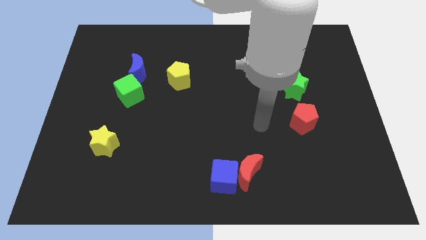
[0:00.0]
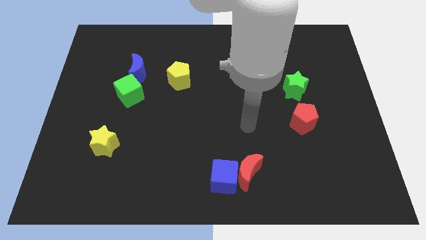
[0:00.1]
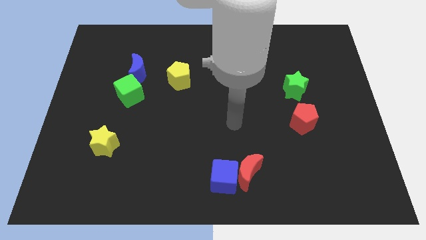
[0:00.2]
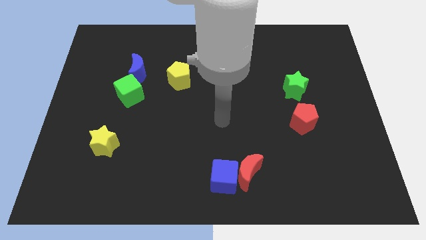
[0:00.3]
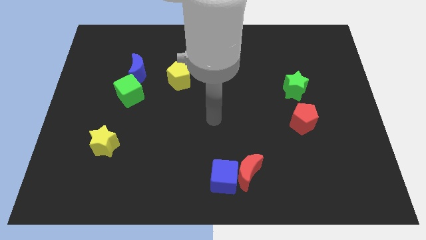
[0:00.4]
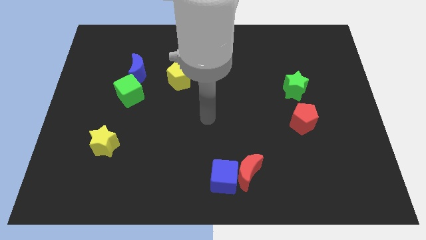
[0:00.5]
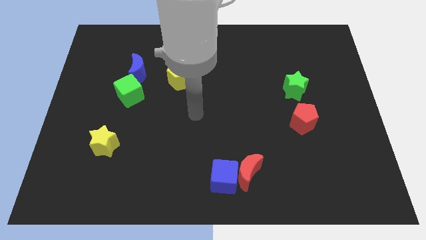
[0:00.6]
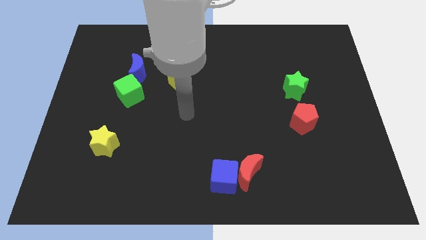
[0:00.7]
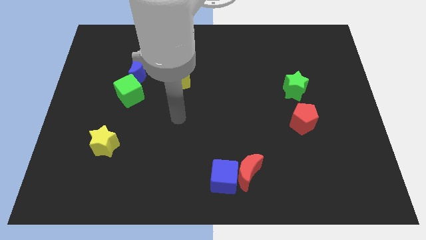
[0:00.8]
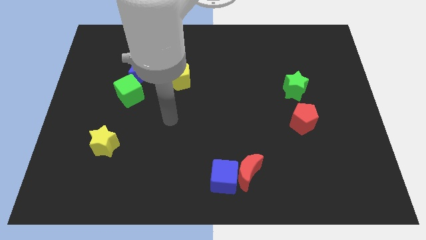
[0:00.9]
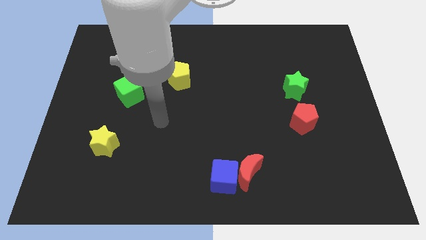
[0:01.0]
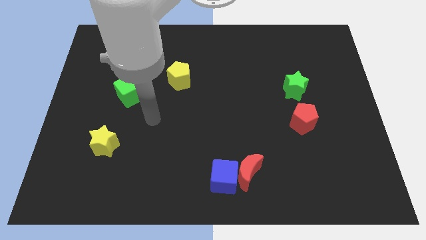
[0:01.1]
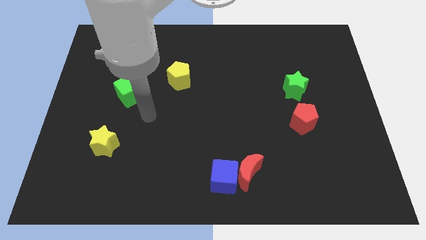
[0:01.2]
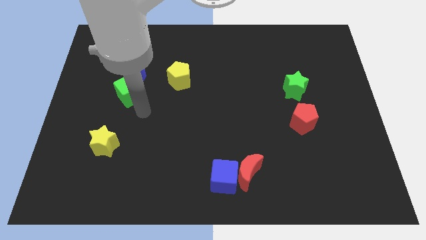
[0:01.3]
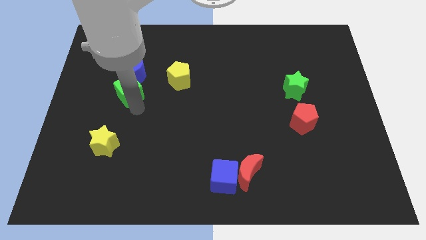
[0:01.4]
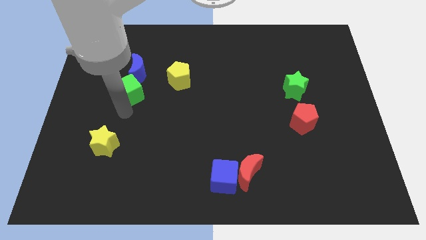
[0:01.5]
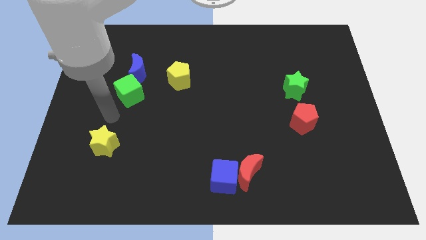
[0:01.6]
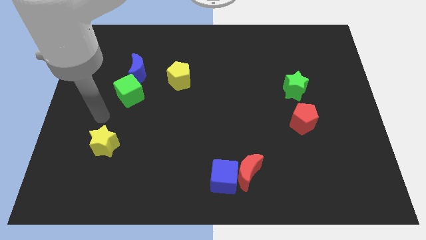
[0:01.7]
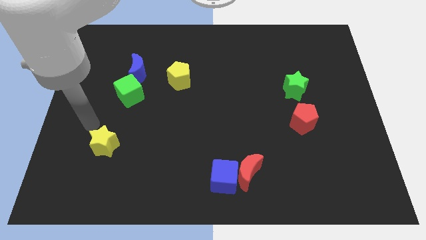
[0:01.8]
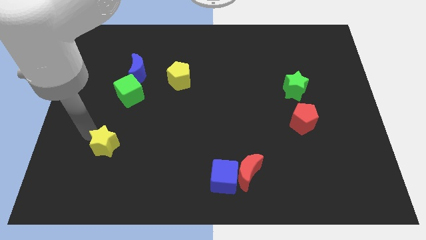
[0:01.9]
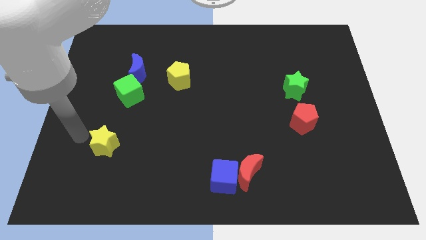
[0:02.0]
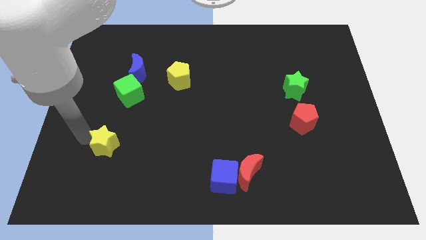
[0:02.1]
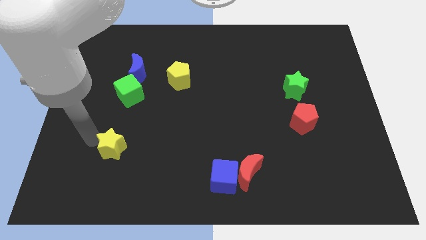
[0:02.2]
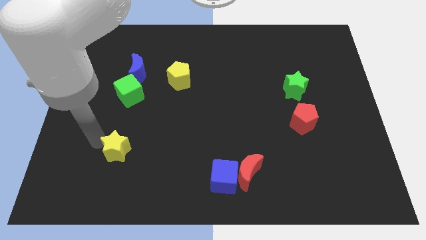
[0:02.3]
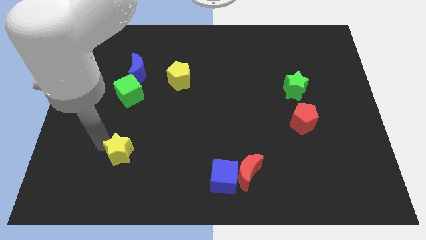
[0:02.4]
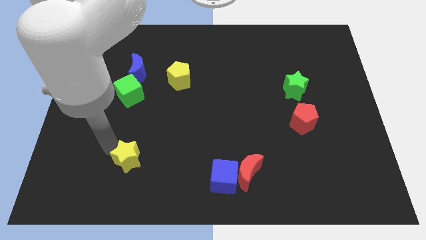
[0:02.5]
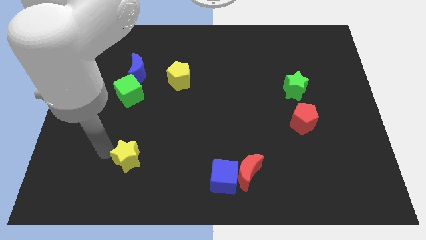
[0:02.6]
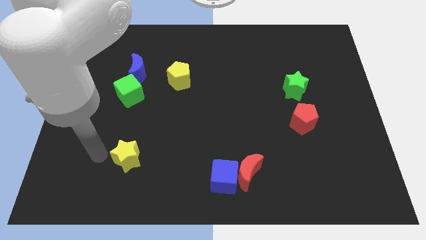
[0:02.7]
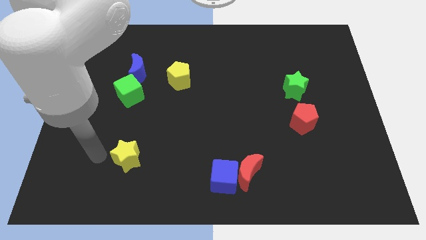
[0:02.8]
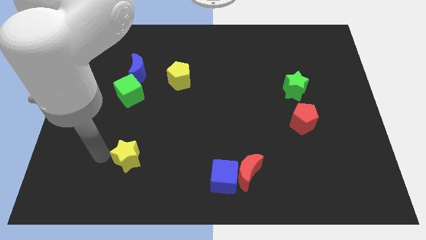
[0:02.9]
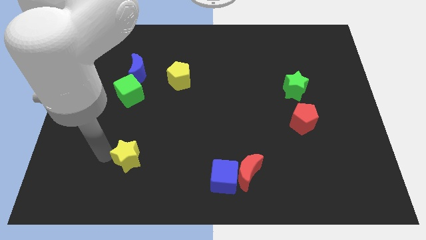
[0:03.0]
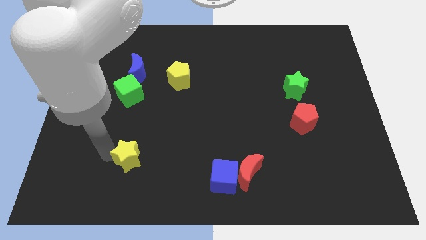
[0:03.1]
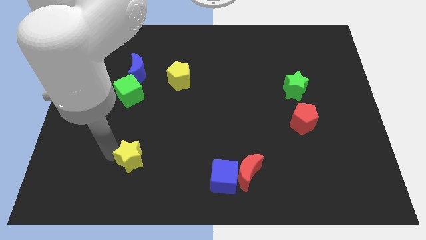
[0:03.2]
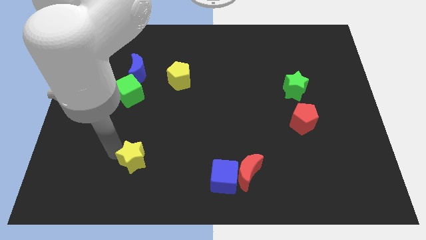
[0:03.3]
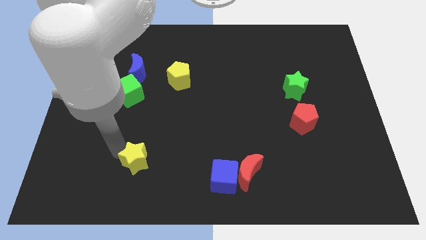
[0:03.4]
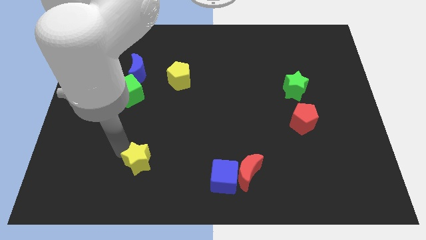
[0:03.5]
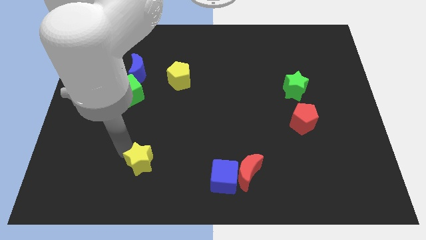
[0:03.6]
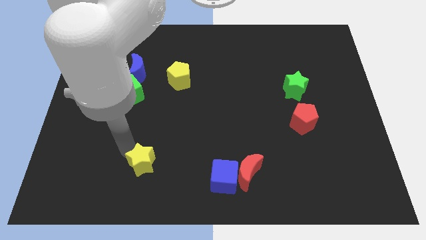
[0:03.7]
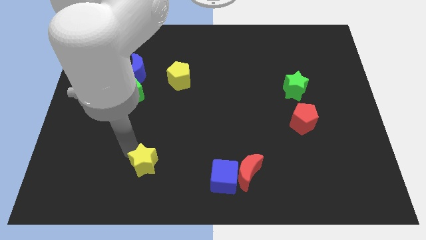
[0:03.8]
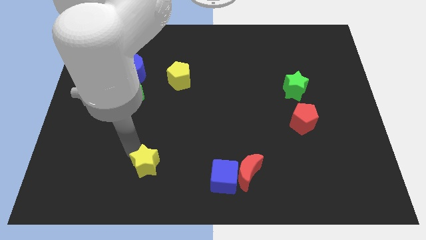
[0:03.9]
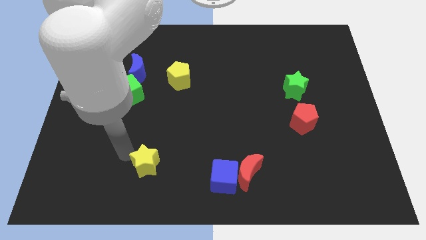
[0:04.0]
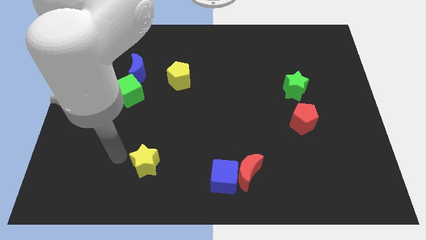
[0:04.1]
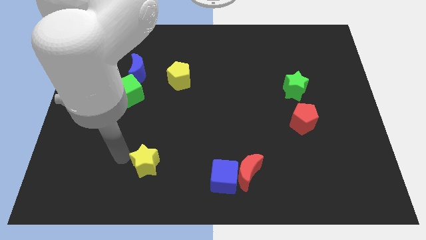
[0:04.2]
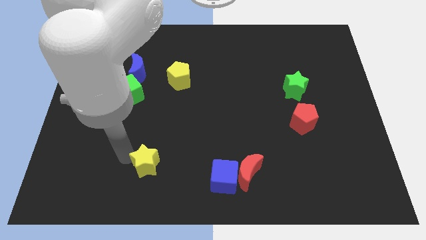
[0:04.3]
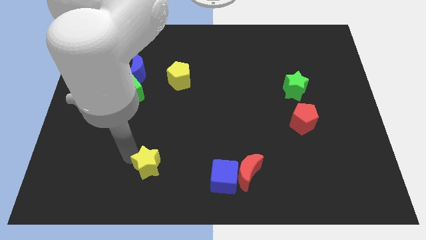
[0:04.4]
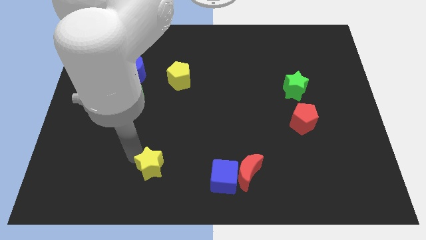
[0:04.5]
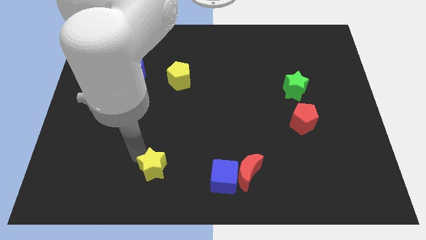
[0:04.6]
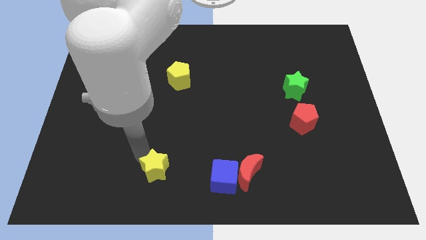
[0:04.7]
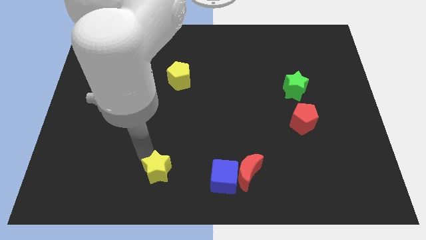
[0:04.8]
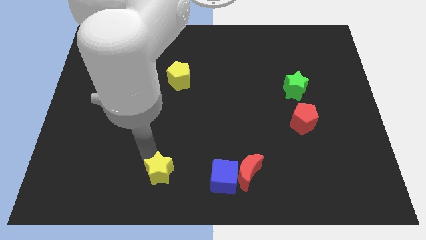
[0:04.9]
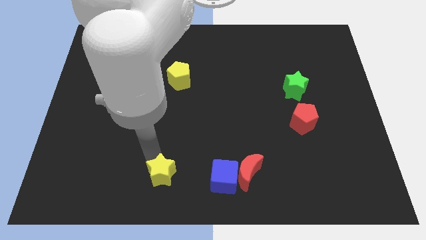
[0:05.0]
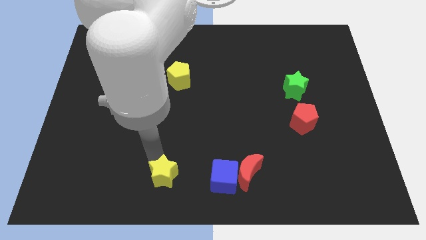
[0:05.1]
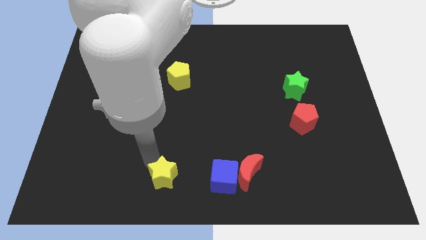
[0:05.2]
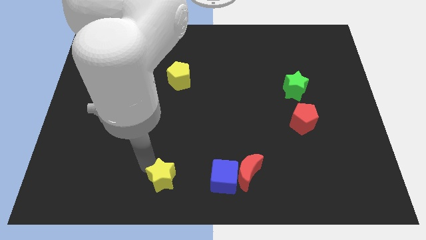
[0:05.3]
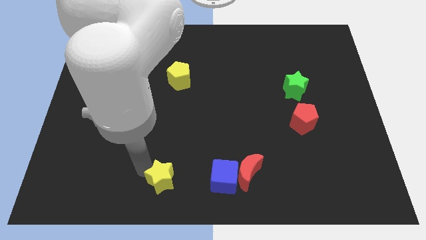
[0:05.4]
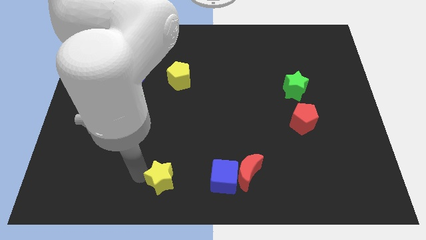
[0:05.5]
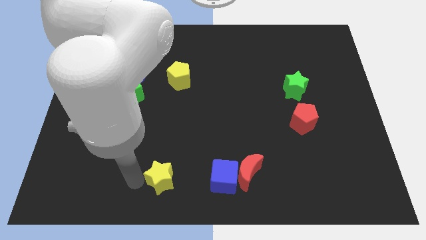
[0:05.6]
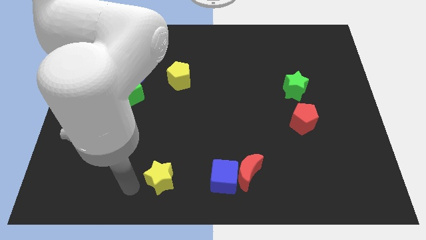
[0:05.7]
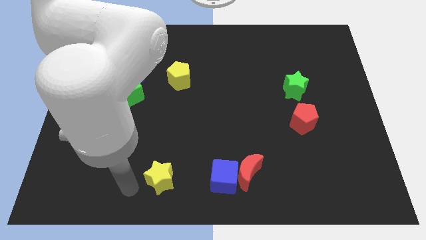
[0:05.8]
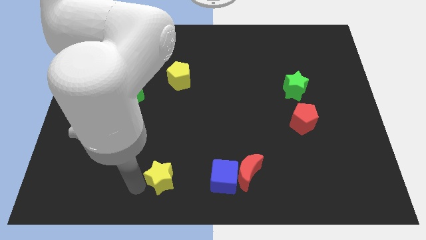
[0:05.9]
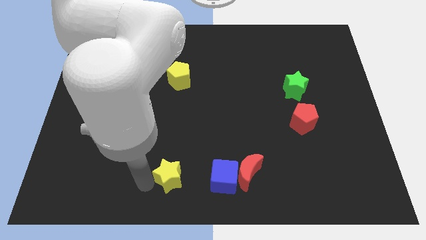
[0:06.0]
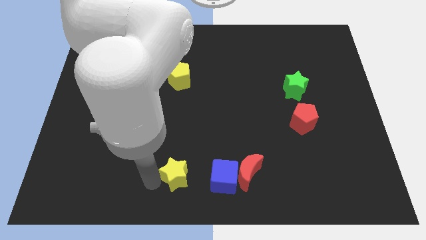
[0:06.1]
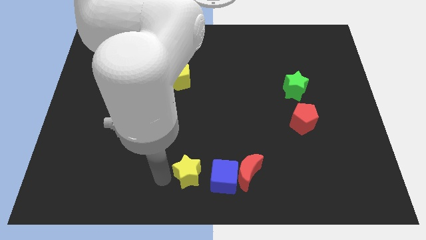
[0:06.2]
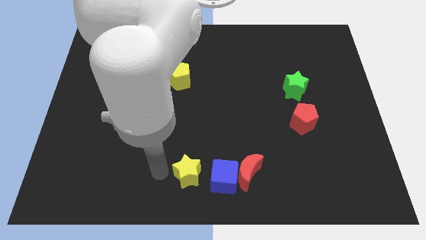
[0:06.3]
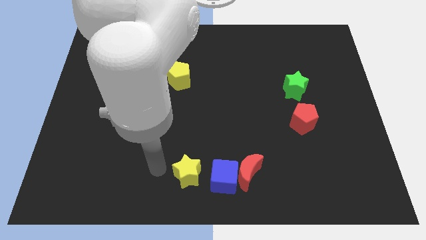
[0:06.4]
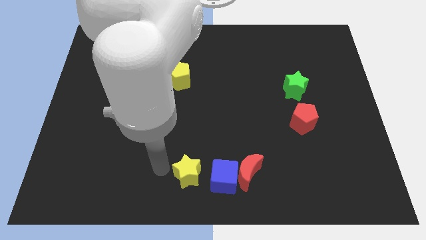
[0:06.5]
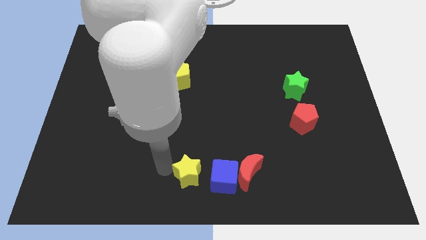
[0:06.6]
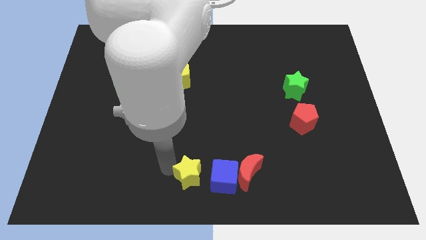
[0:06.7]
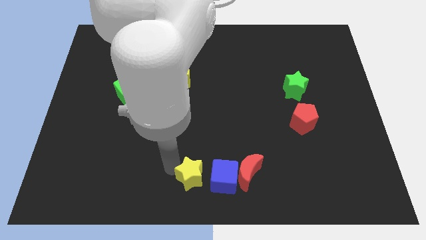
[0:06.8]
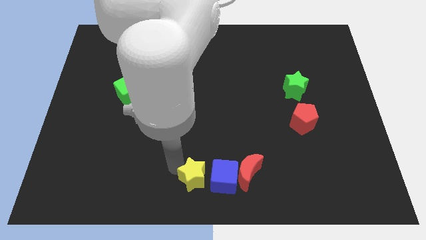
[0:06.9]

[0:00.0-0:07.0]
slide the yellow star to the blue cube

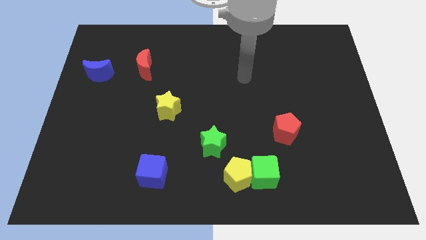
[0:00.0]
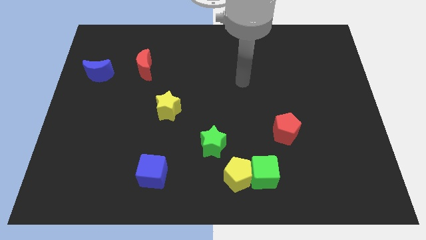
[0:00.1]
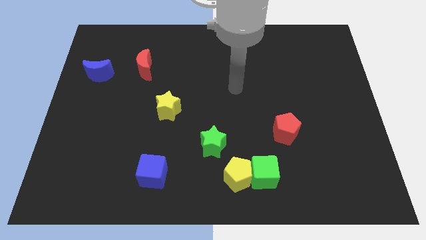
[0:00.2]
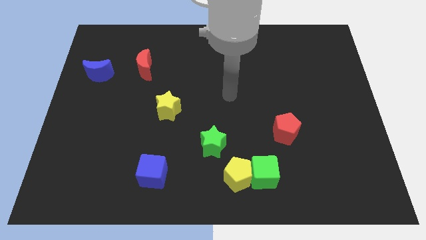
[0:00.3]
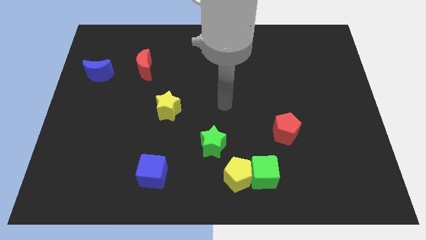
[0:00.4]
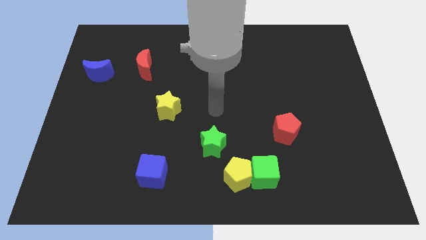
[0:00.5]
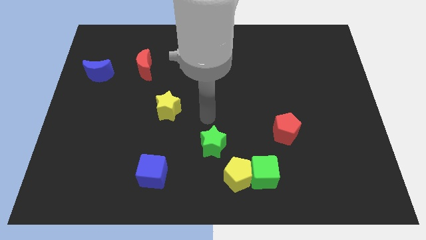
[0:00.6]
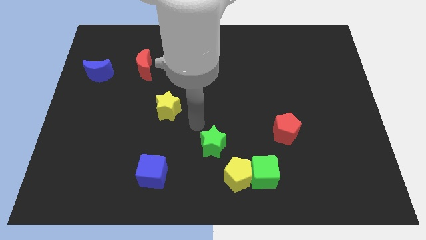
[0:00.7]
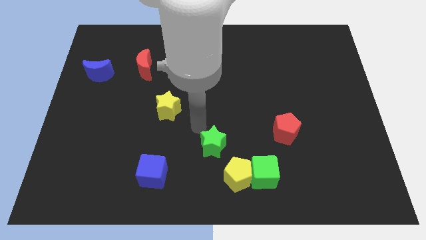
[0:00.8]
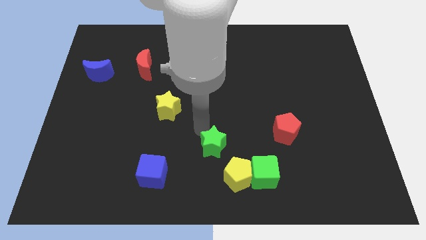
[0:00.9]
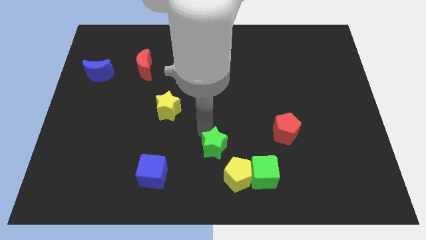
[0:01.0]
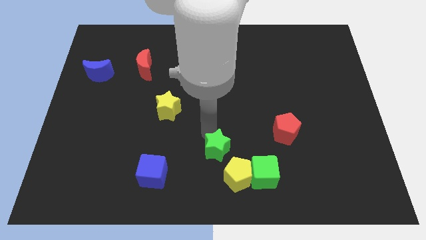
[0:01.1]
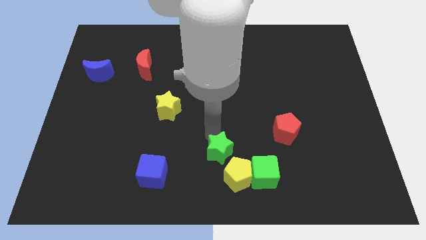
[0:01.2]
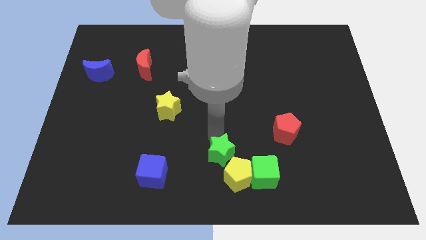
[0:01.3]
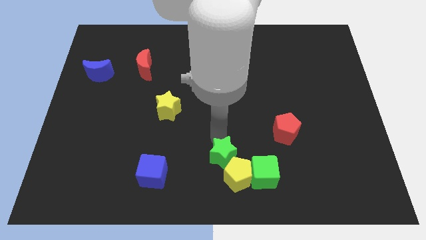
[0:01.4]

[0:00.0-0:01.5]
push the green star to the yellow pentagon
